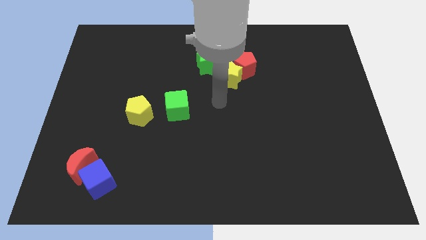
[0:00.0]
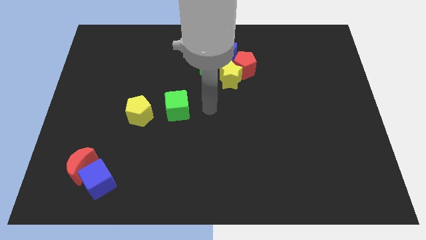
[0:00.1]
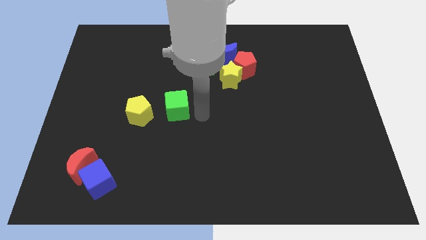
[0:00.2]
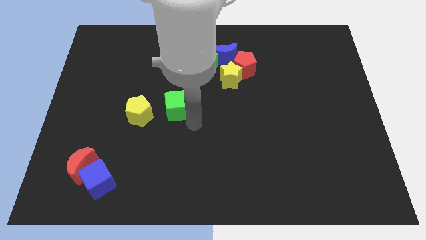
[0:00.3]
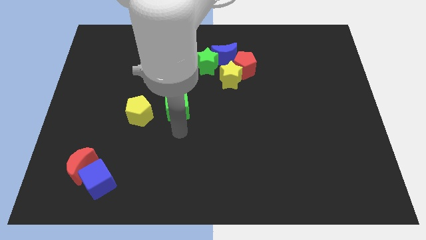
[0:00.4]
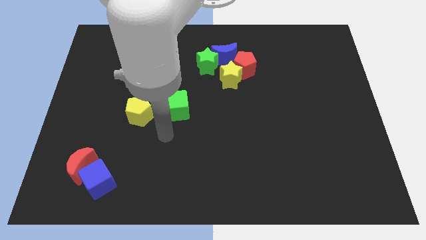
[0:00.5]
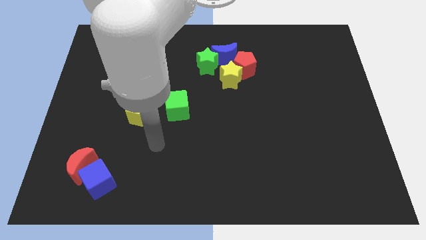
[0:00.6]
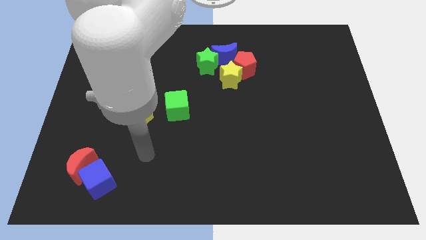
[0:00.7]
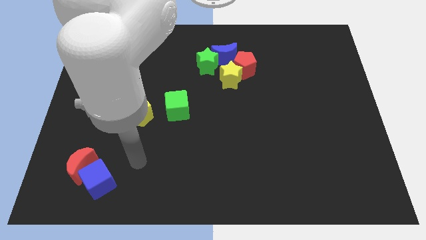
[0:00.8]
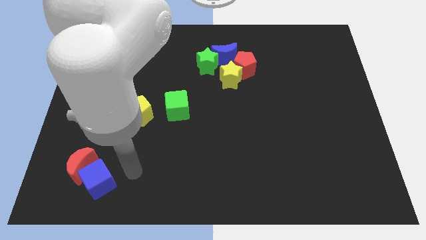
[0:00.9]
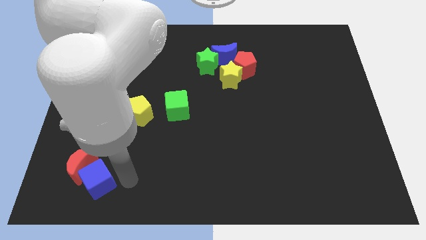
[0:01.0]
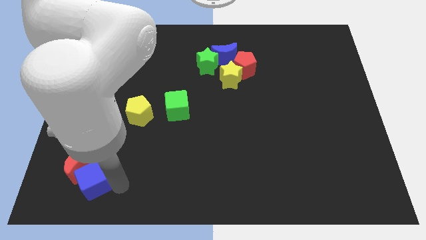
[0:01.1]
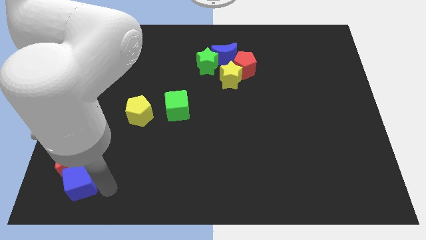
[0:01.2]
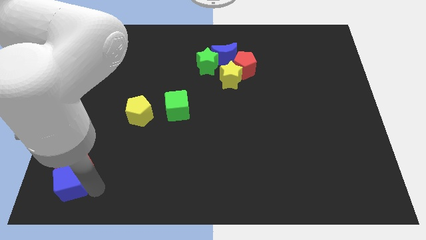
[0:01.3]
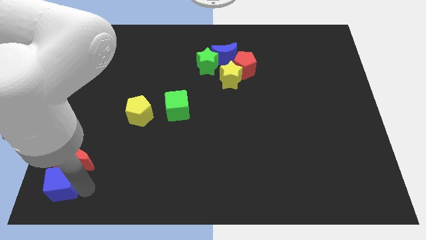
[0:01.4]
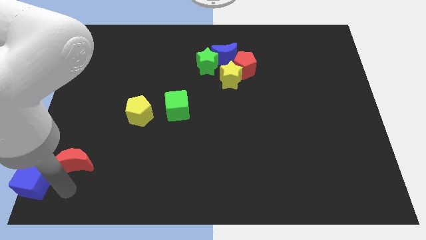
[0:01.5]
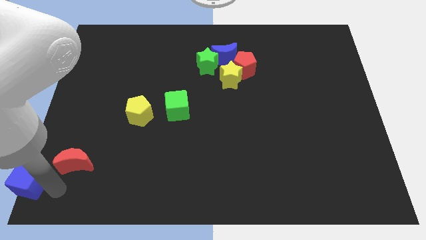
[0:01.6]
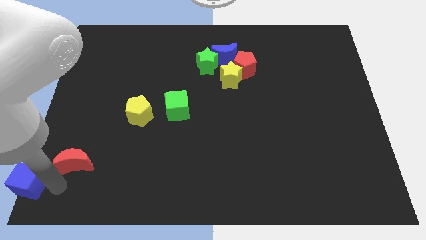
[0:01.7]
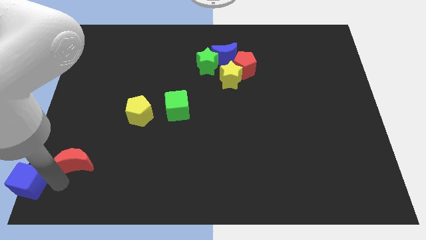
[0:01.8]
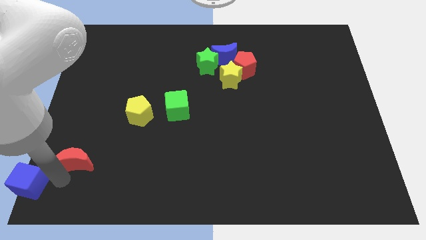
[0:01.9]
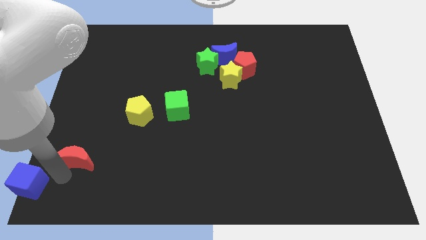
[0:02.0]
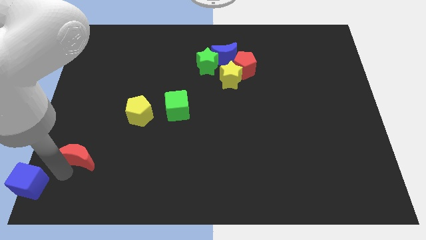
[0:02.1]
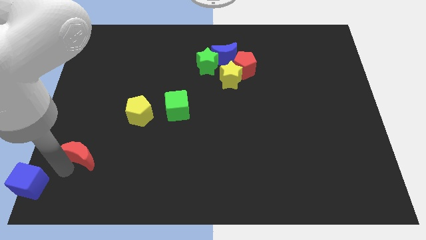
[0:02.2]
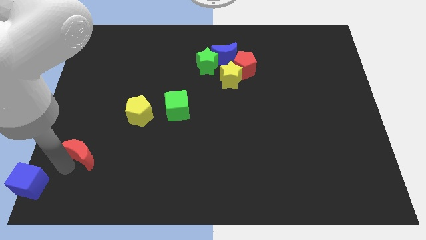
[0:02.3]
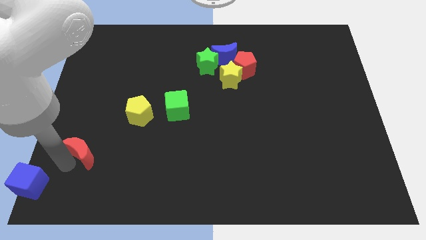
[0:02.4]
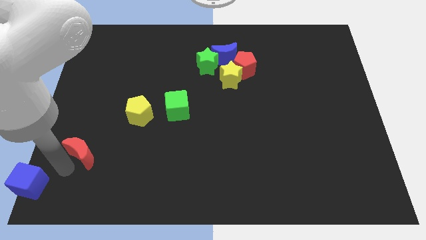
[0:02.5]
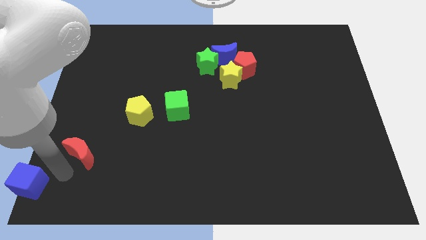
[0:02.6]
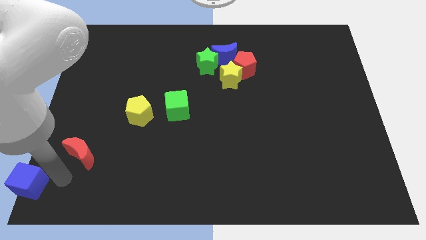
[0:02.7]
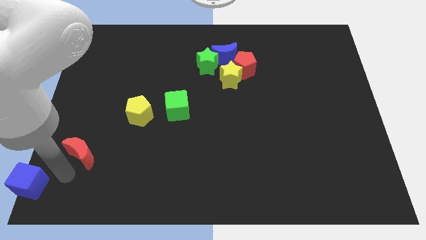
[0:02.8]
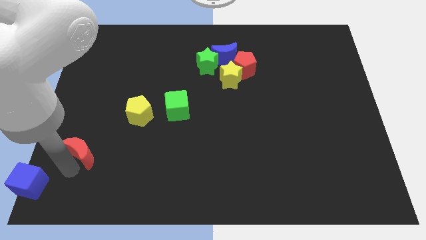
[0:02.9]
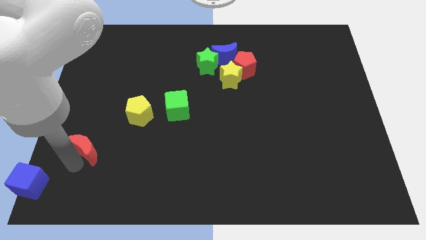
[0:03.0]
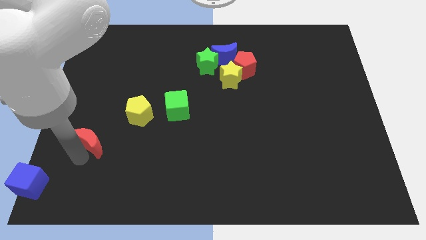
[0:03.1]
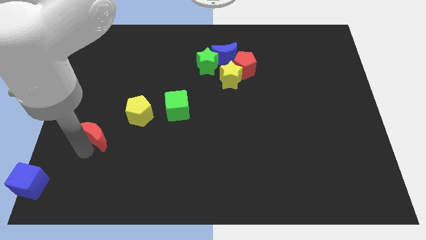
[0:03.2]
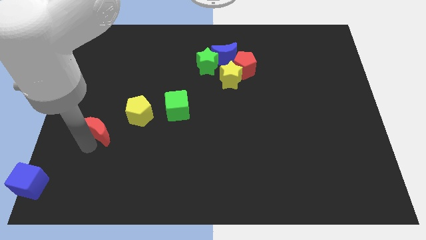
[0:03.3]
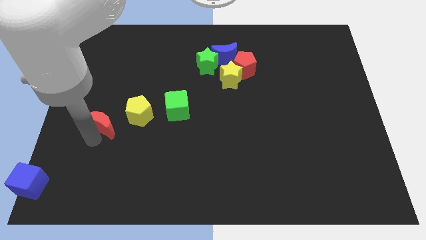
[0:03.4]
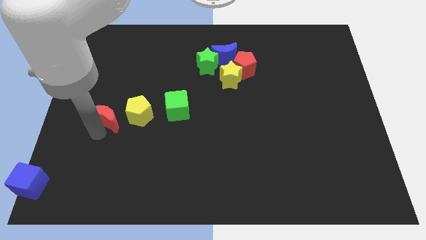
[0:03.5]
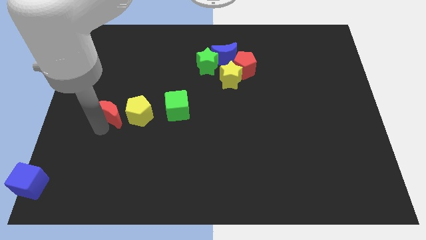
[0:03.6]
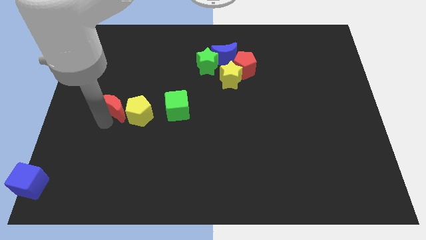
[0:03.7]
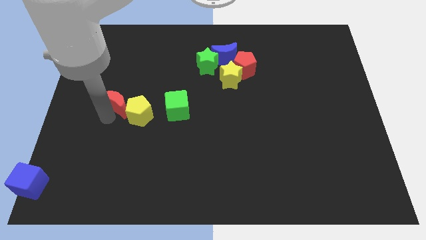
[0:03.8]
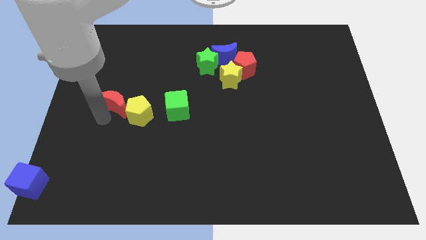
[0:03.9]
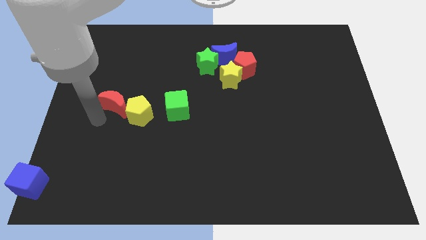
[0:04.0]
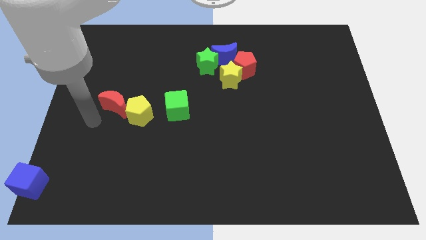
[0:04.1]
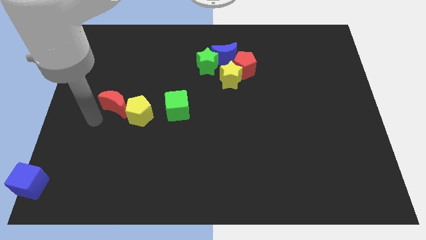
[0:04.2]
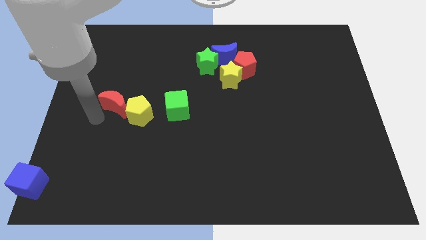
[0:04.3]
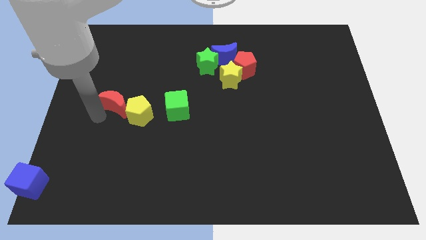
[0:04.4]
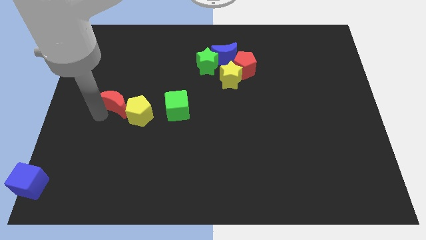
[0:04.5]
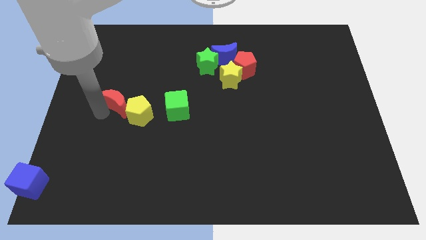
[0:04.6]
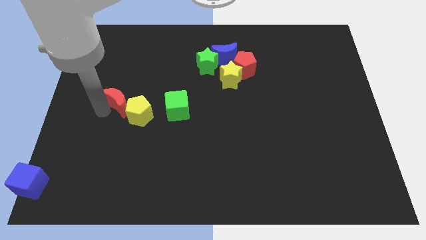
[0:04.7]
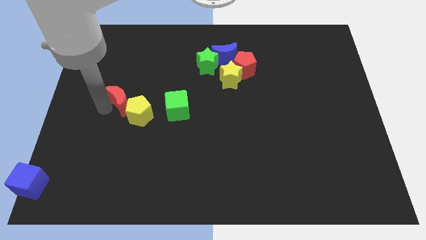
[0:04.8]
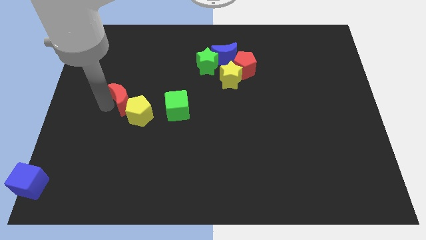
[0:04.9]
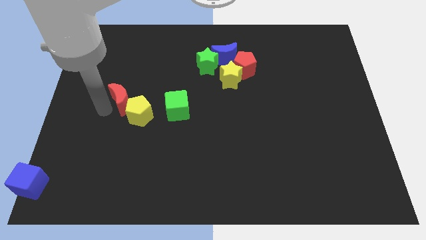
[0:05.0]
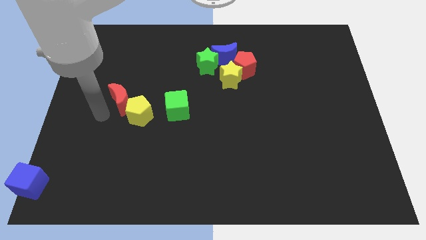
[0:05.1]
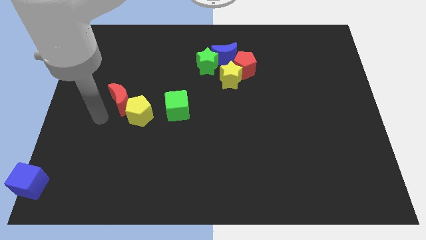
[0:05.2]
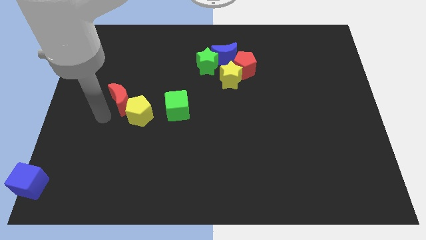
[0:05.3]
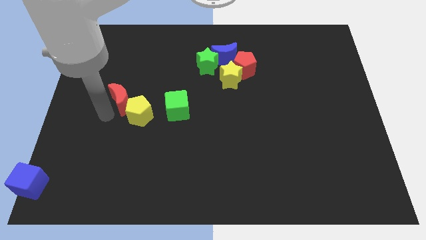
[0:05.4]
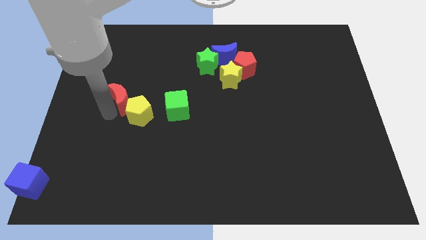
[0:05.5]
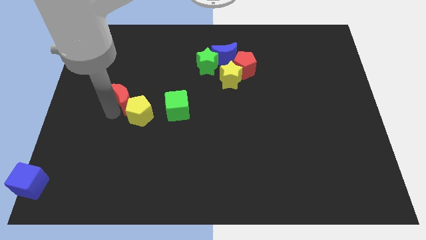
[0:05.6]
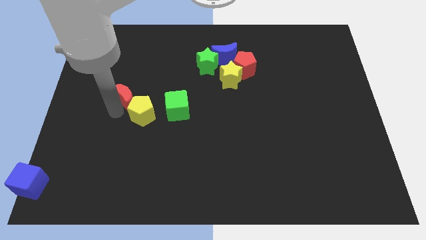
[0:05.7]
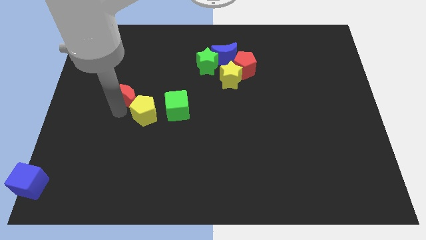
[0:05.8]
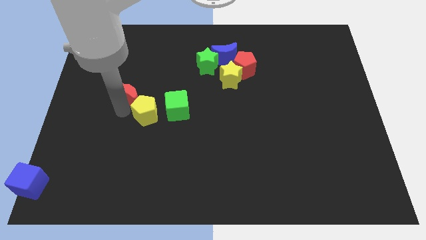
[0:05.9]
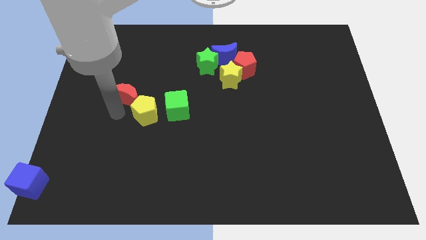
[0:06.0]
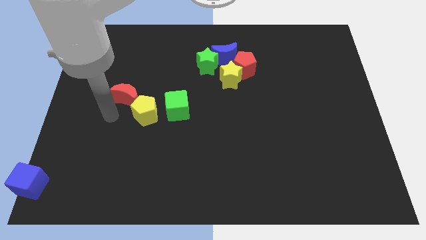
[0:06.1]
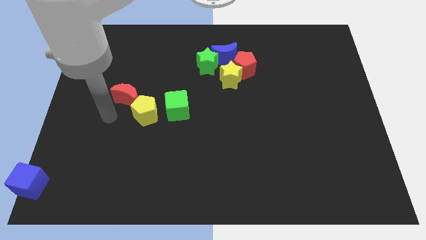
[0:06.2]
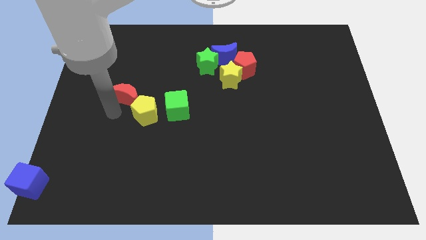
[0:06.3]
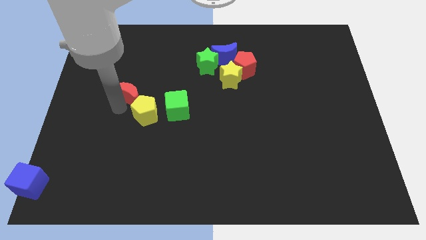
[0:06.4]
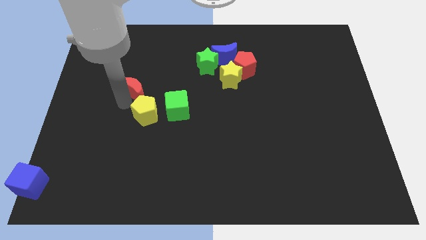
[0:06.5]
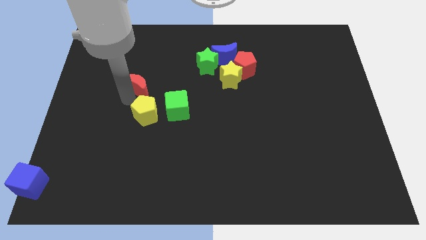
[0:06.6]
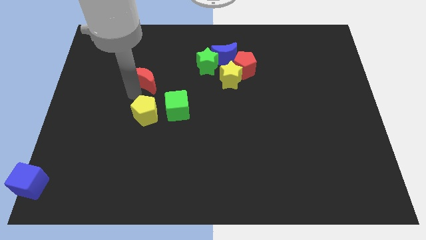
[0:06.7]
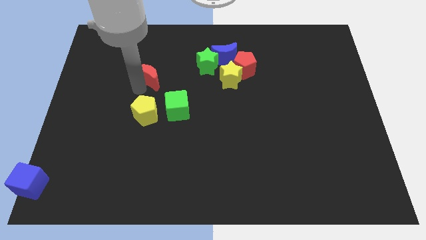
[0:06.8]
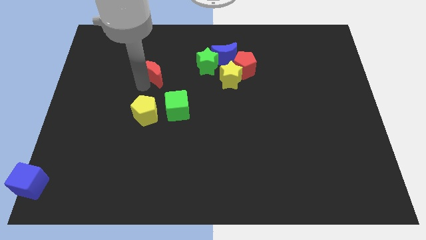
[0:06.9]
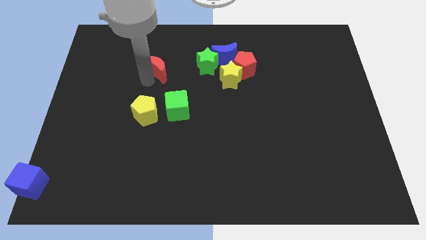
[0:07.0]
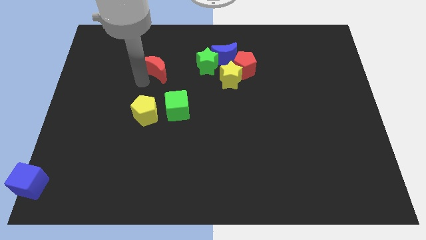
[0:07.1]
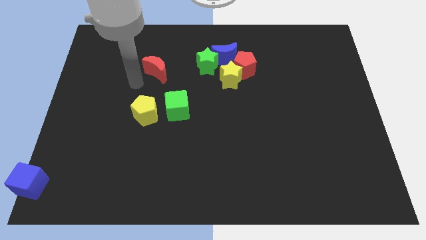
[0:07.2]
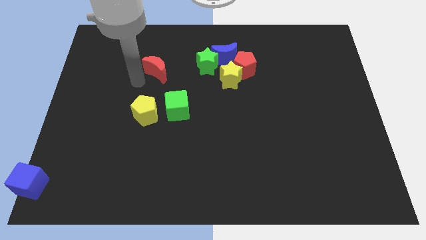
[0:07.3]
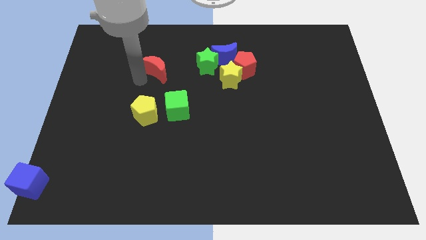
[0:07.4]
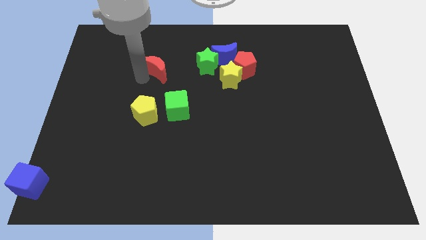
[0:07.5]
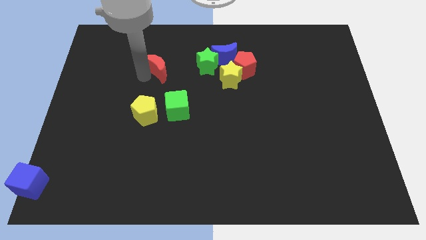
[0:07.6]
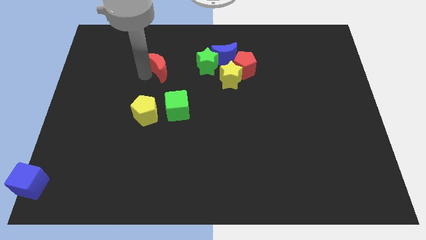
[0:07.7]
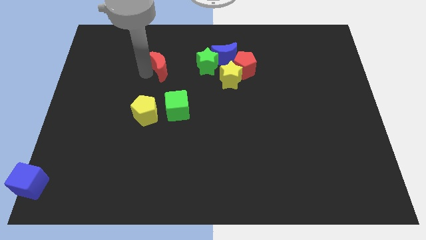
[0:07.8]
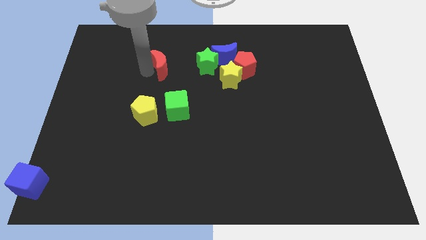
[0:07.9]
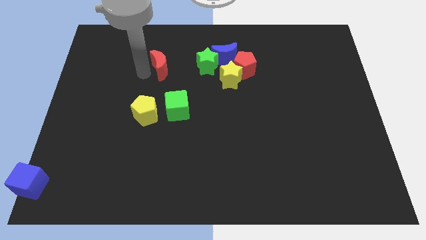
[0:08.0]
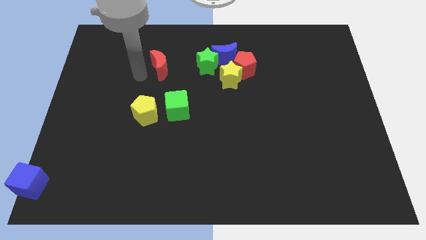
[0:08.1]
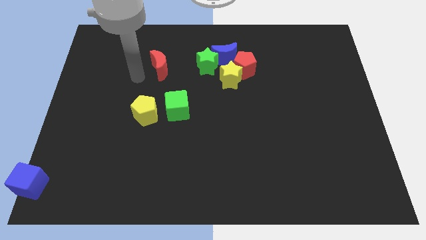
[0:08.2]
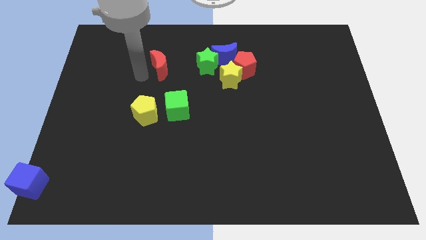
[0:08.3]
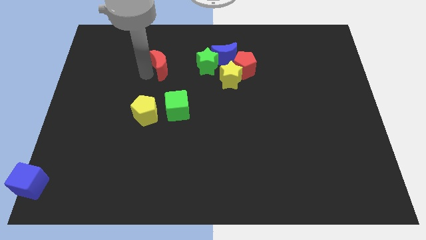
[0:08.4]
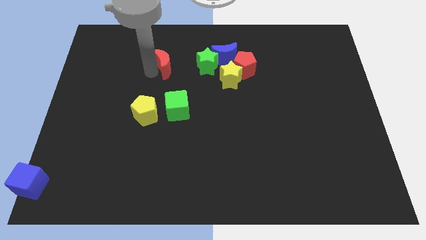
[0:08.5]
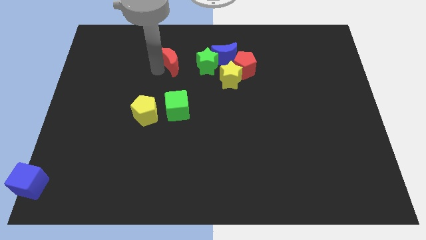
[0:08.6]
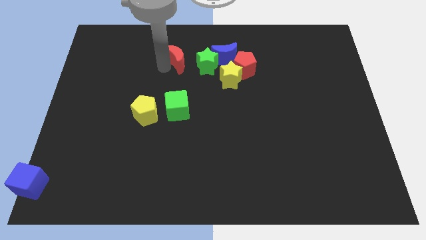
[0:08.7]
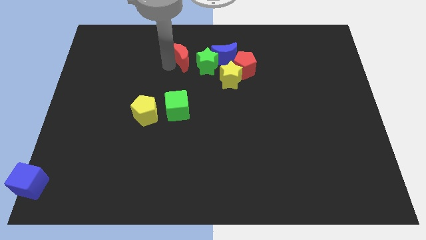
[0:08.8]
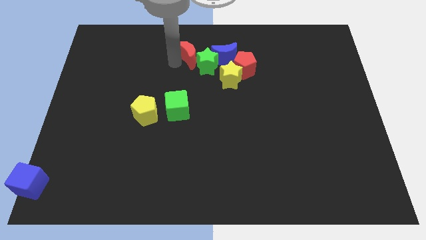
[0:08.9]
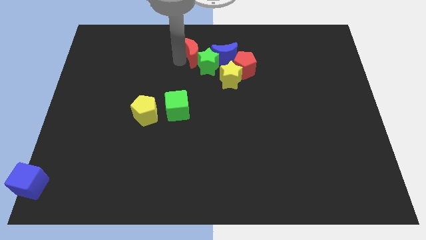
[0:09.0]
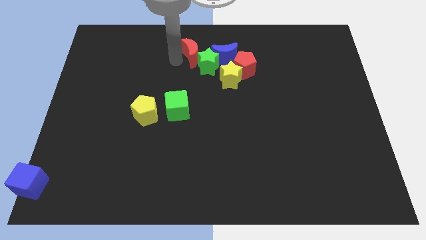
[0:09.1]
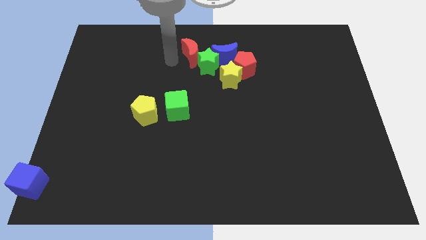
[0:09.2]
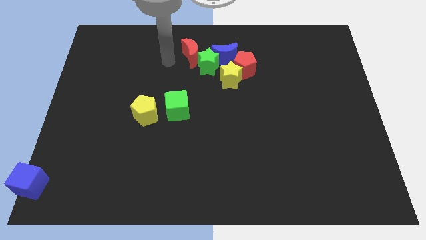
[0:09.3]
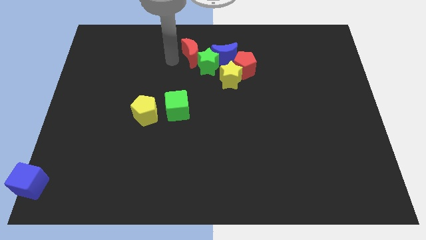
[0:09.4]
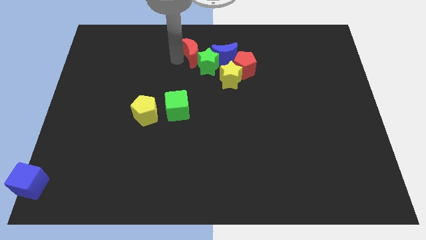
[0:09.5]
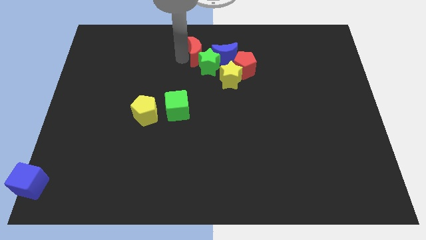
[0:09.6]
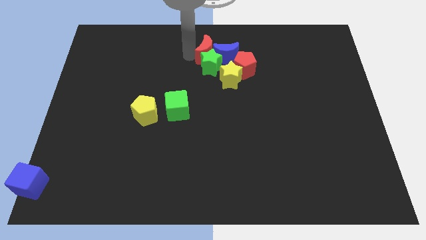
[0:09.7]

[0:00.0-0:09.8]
put the red moon to the blue moon
